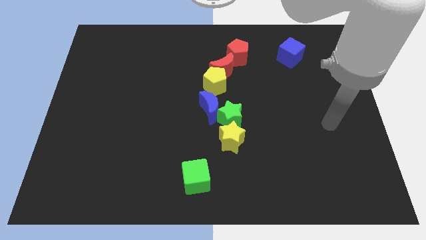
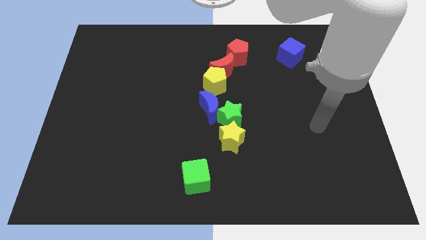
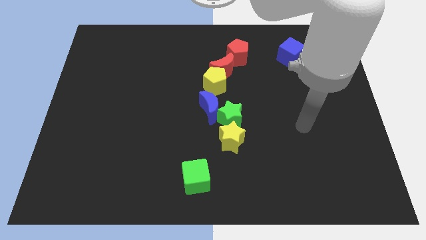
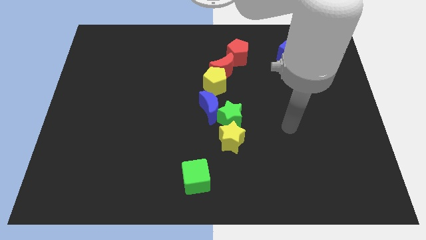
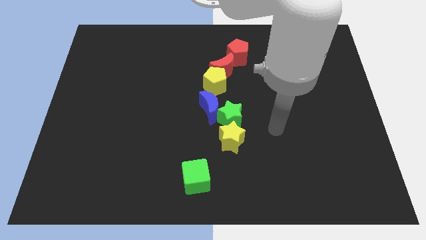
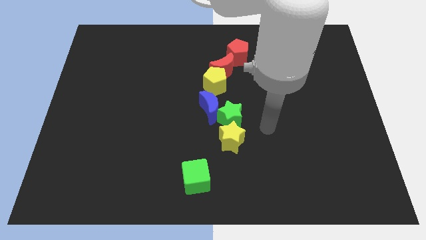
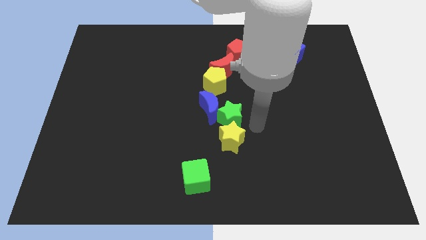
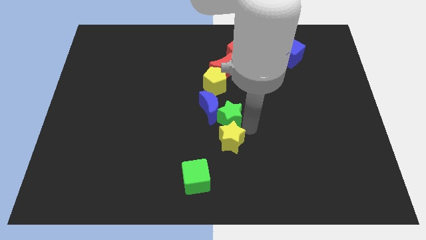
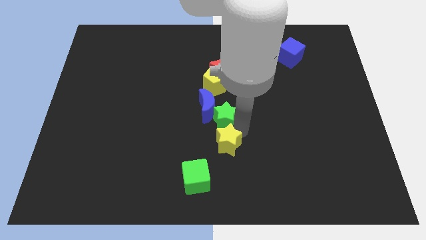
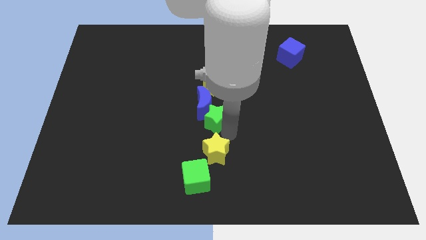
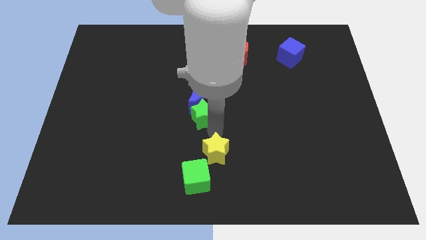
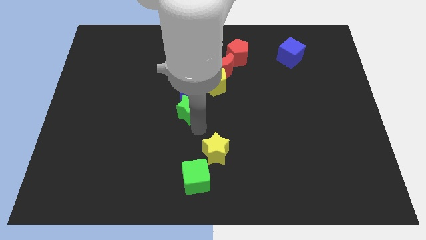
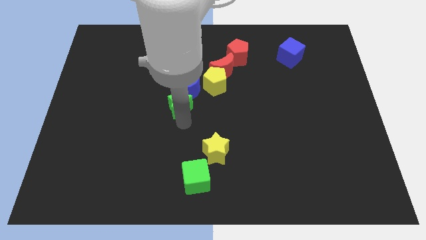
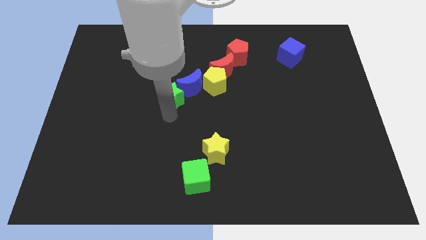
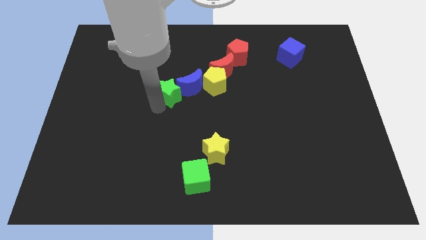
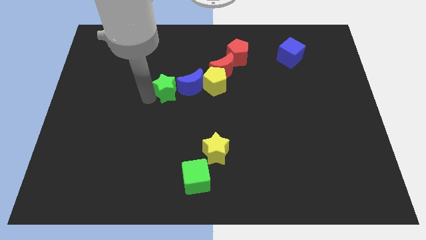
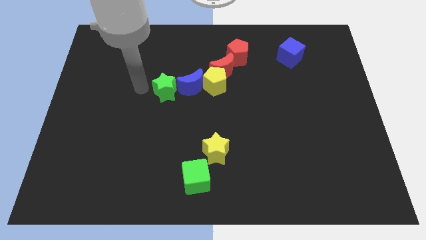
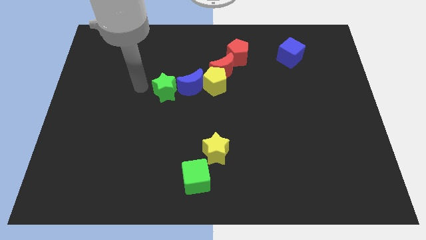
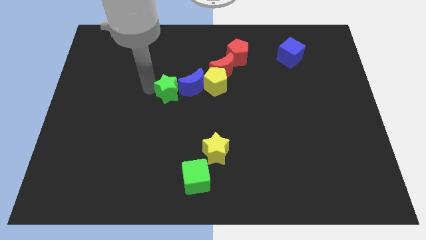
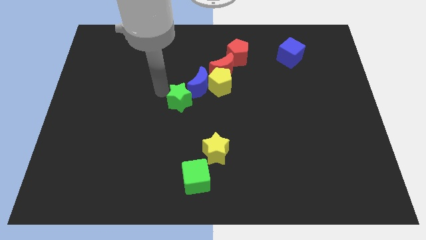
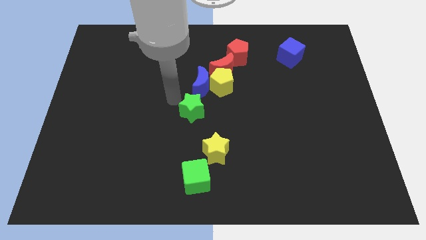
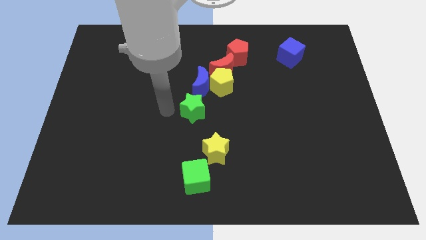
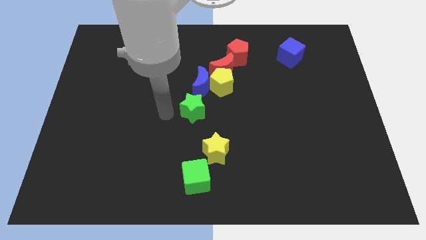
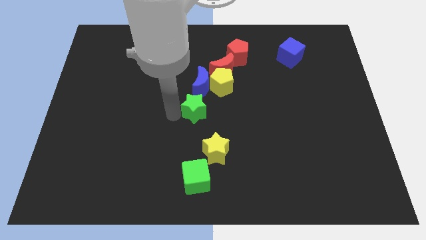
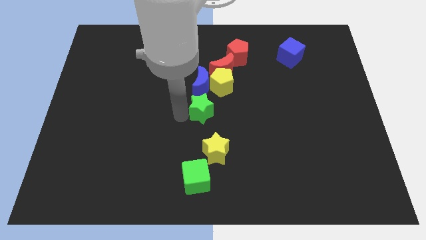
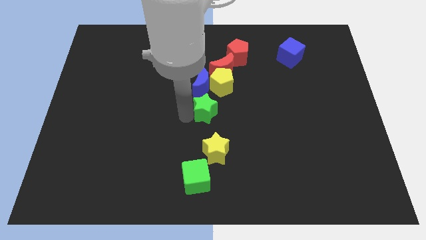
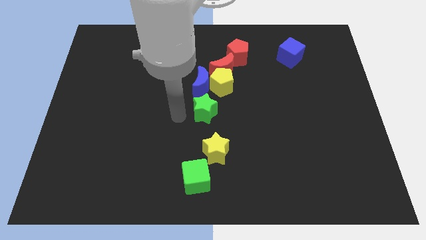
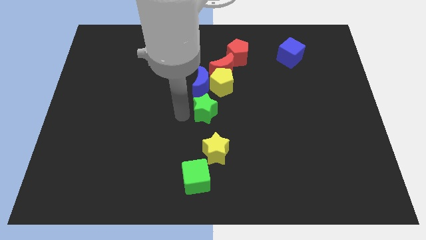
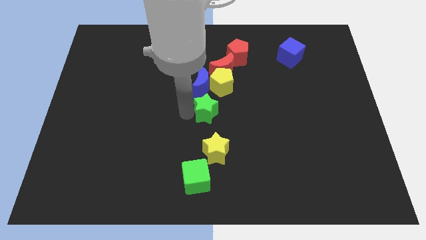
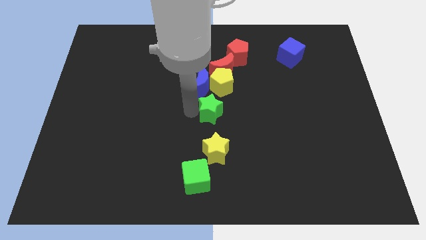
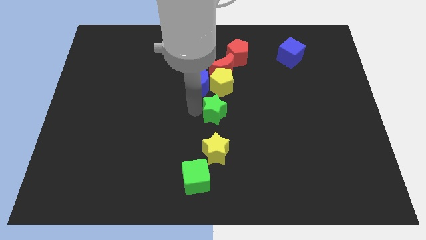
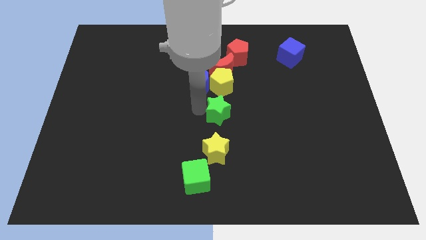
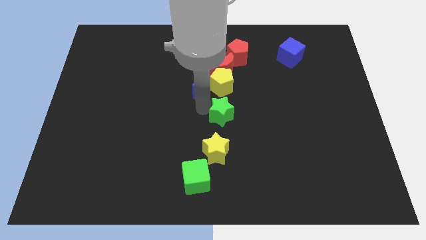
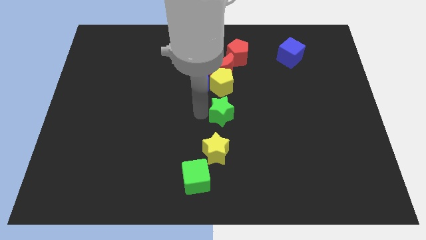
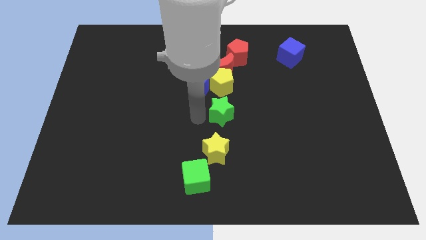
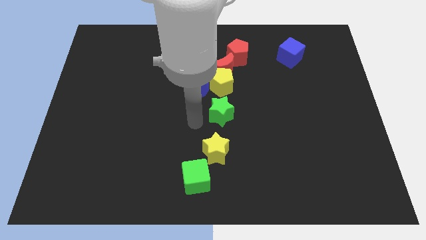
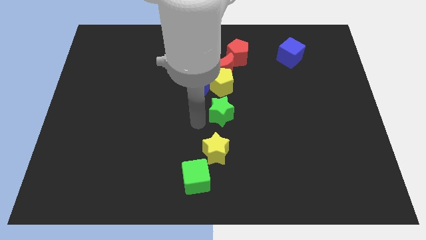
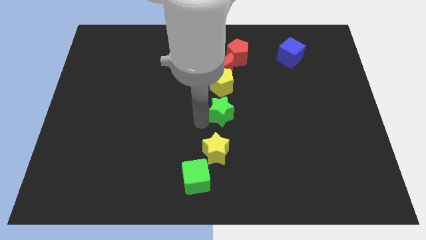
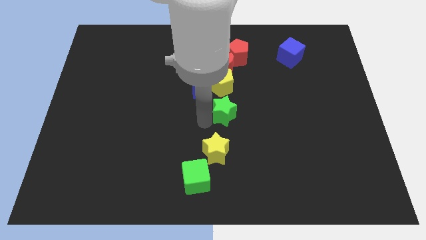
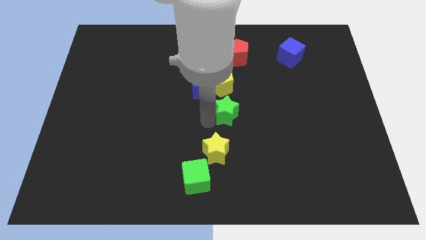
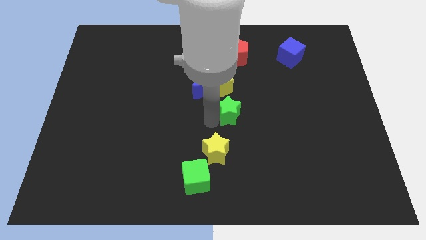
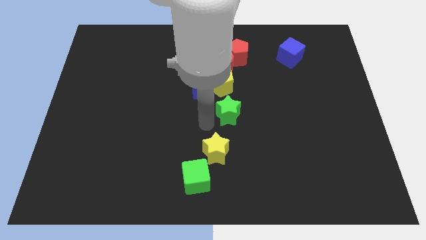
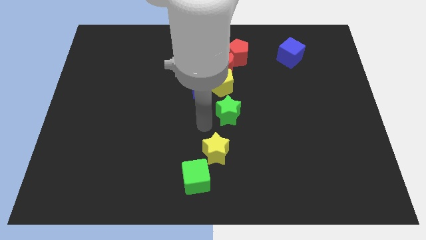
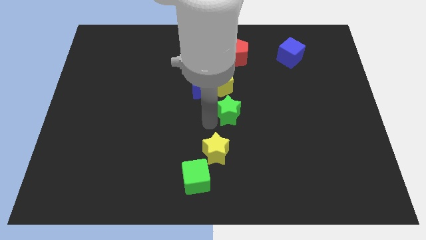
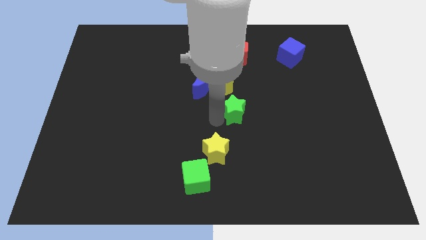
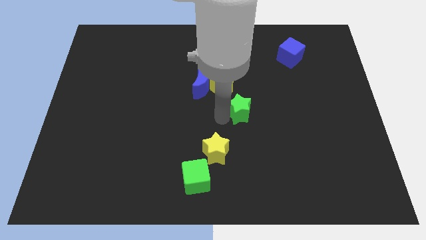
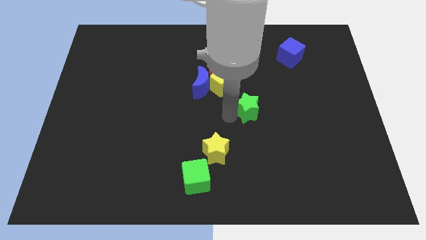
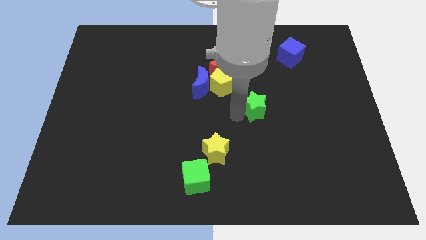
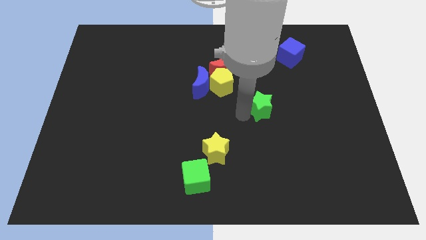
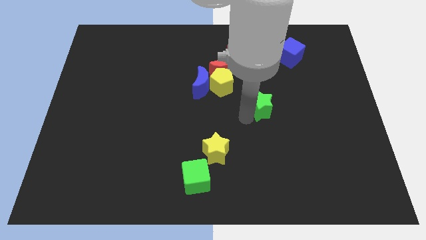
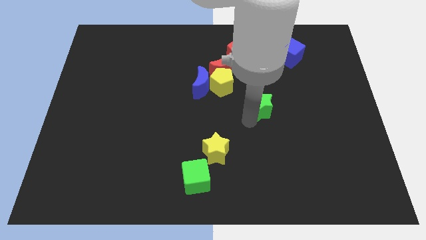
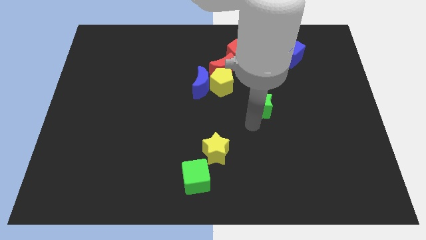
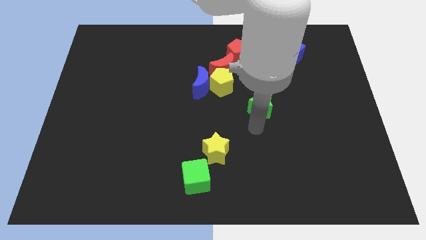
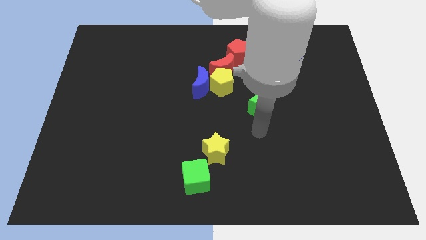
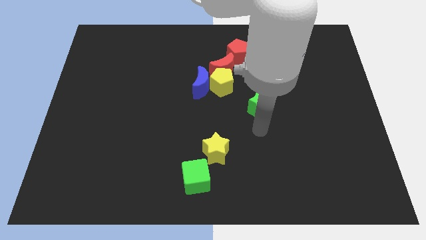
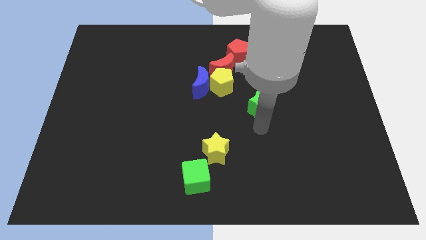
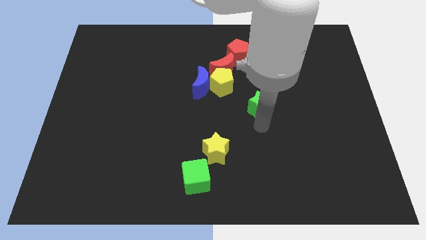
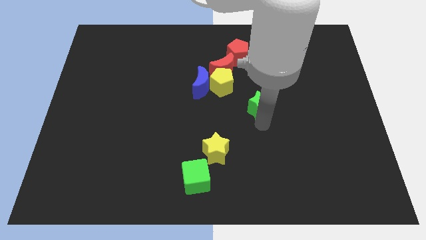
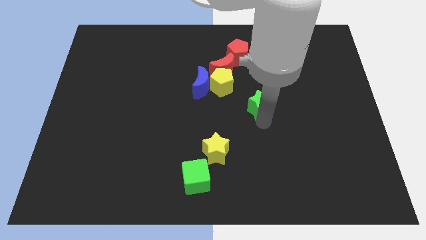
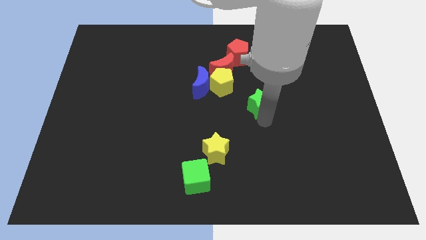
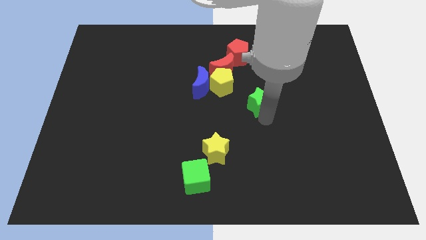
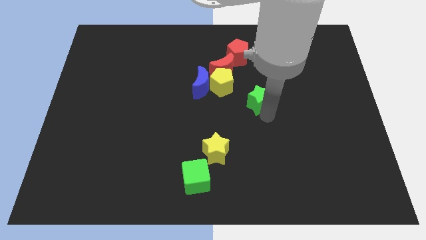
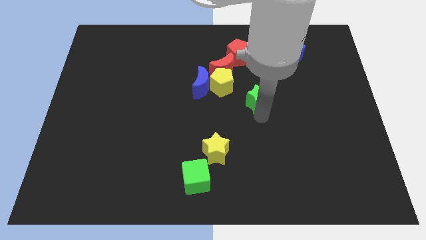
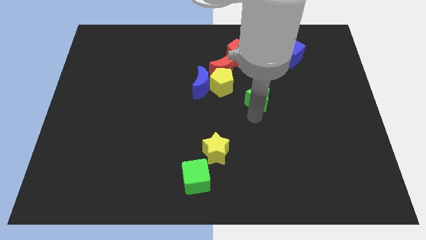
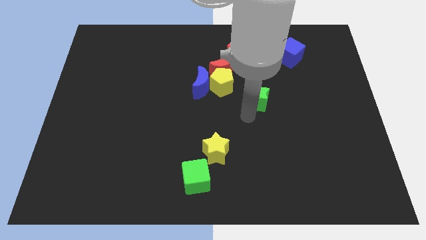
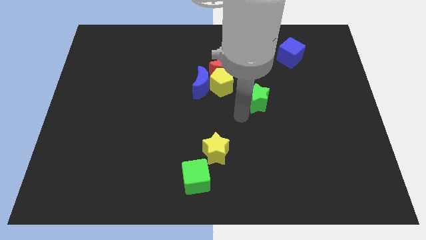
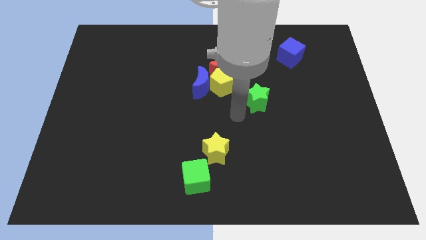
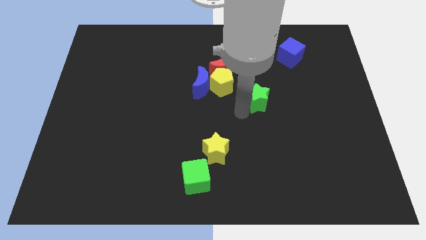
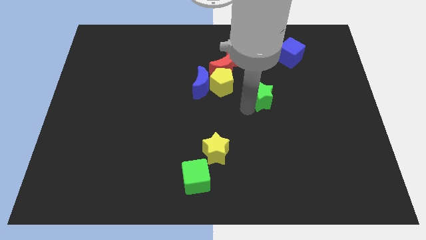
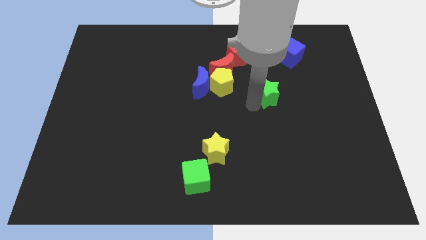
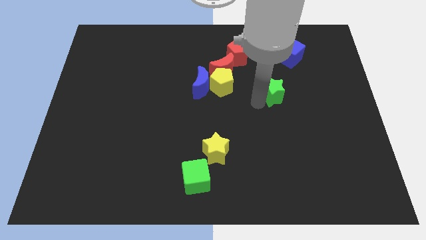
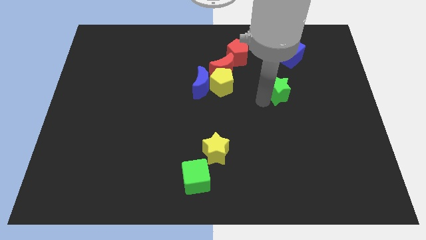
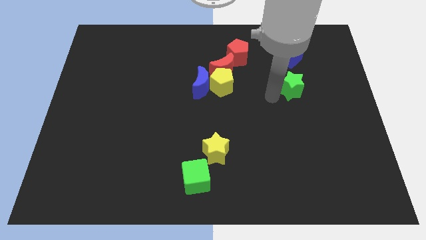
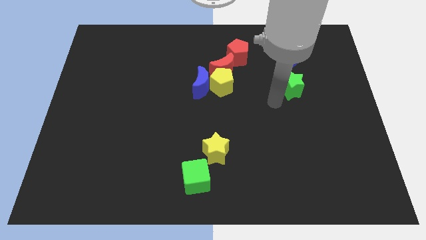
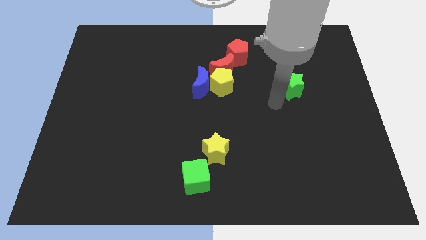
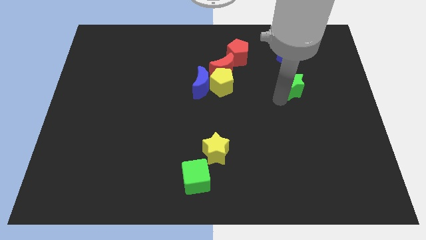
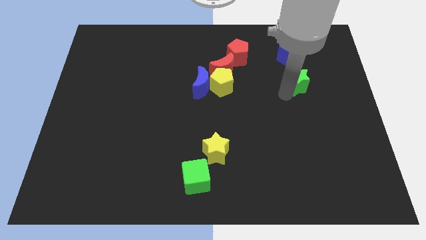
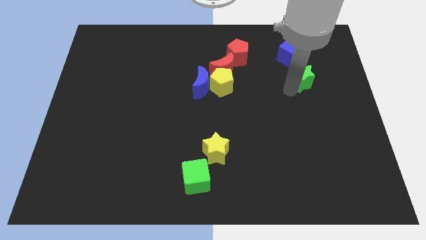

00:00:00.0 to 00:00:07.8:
put the green star to the bottom right side of the blue cube
